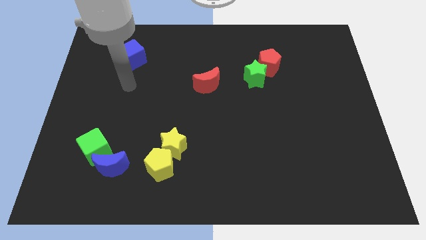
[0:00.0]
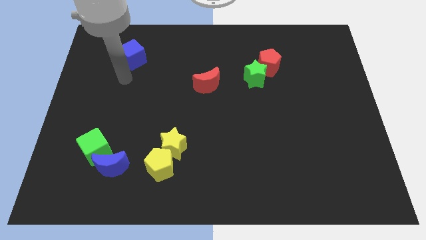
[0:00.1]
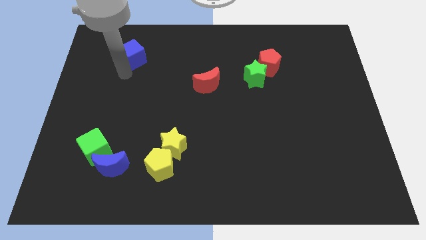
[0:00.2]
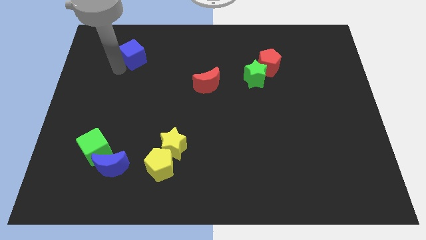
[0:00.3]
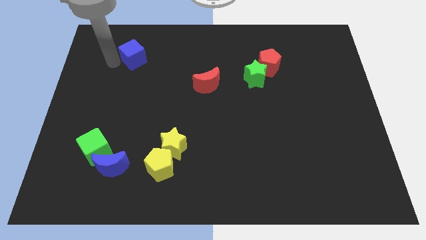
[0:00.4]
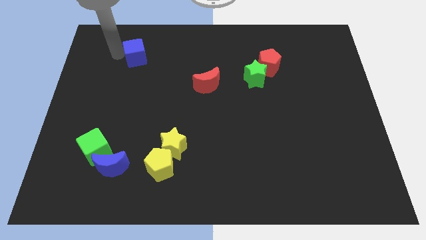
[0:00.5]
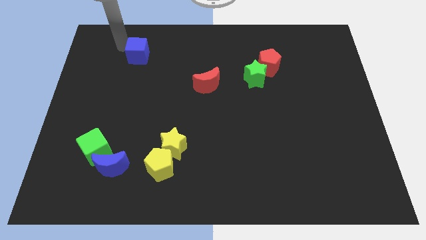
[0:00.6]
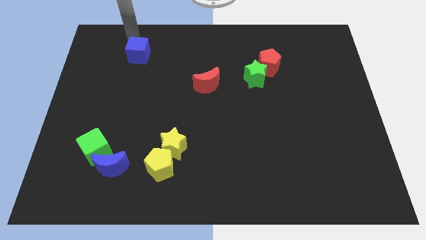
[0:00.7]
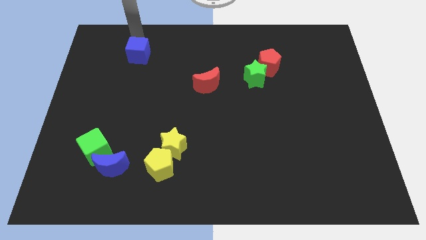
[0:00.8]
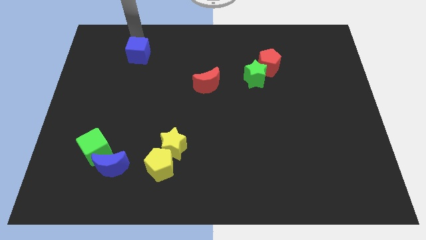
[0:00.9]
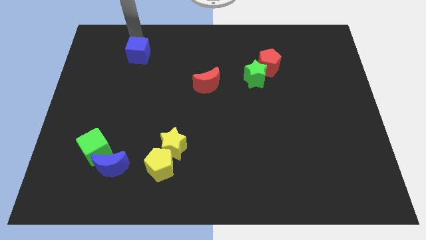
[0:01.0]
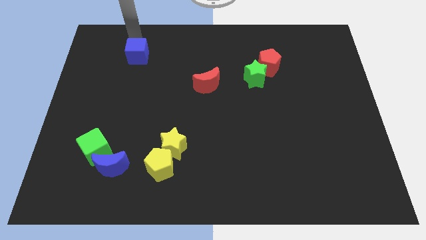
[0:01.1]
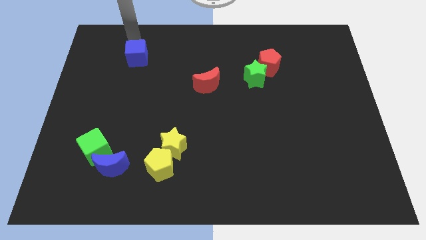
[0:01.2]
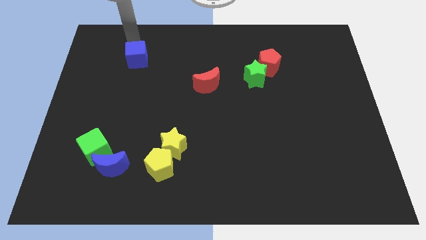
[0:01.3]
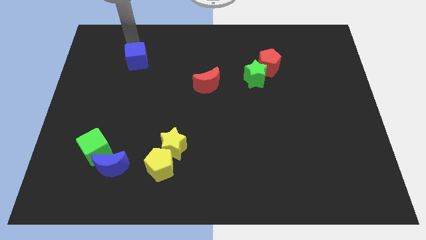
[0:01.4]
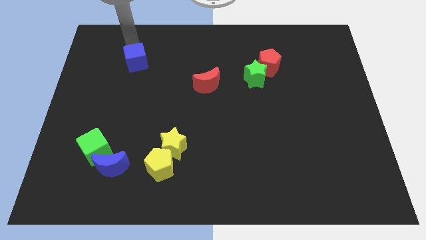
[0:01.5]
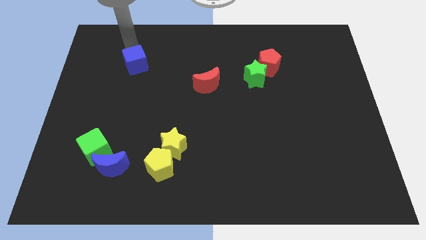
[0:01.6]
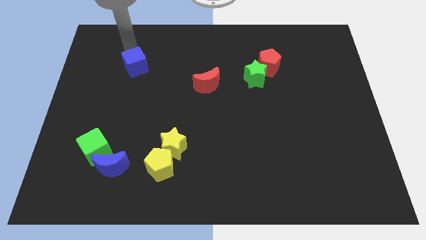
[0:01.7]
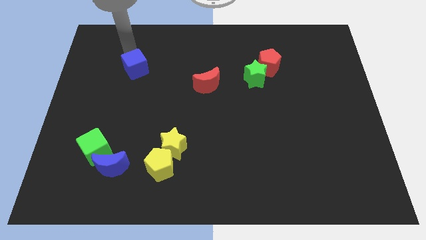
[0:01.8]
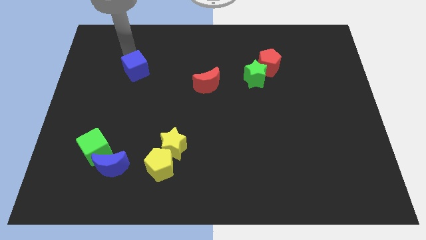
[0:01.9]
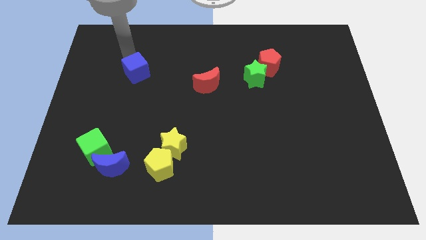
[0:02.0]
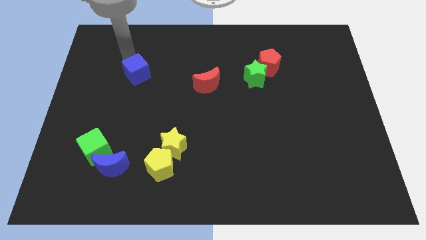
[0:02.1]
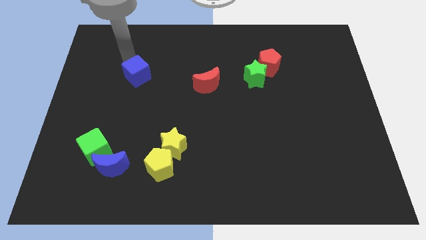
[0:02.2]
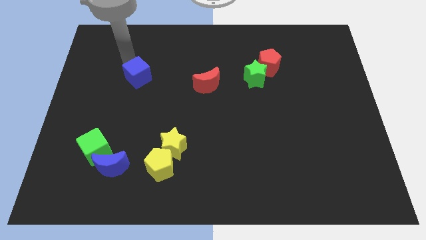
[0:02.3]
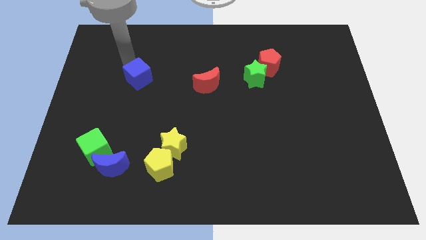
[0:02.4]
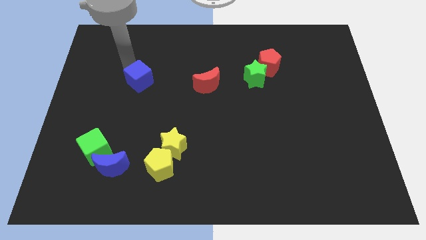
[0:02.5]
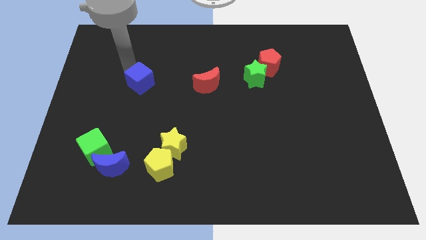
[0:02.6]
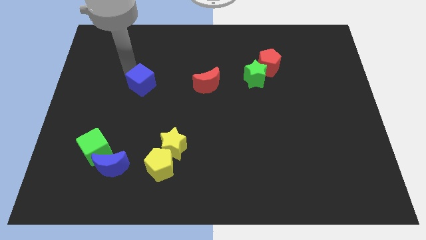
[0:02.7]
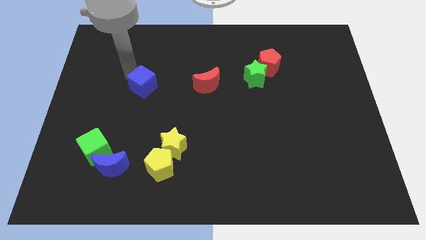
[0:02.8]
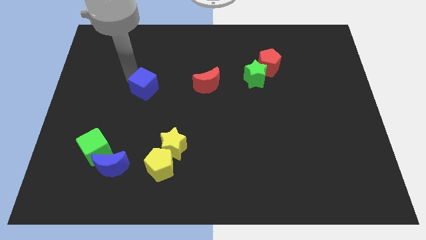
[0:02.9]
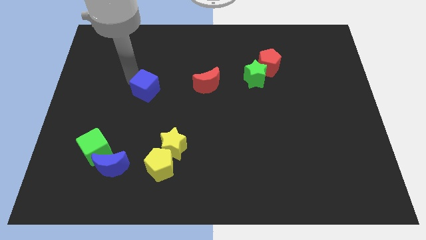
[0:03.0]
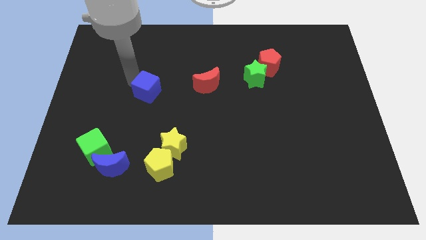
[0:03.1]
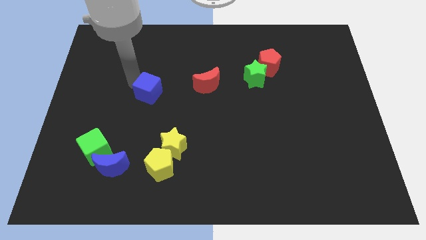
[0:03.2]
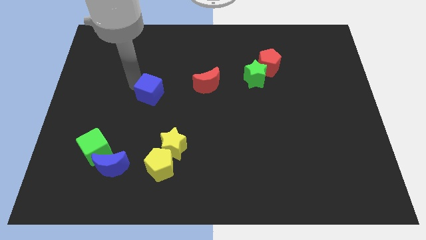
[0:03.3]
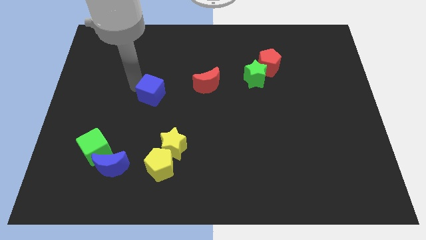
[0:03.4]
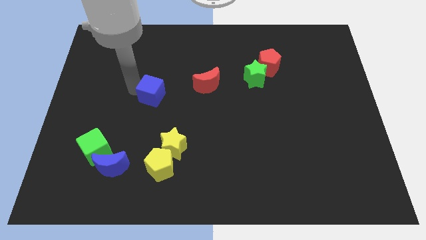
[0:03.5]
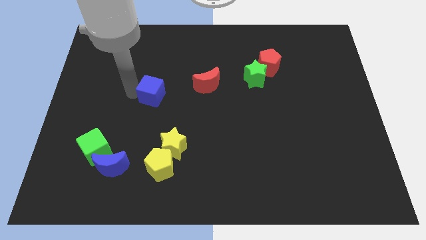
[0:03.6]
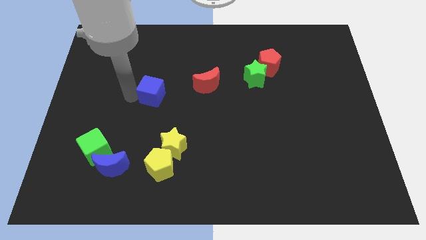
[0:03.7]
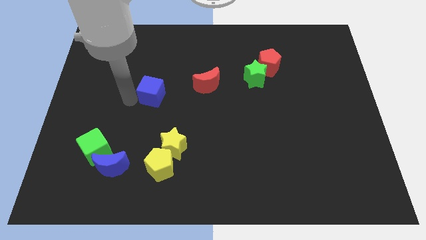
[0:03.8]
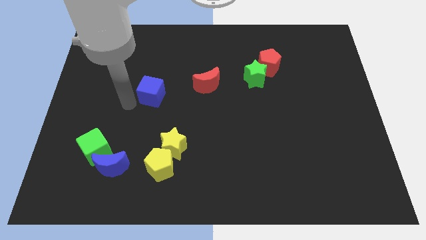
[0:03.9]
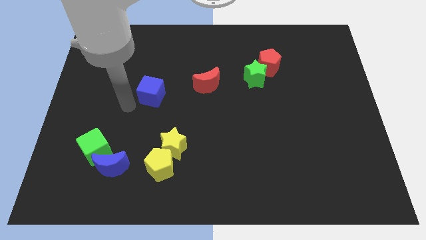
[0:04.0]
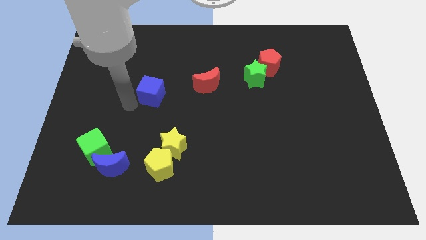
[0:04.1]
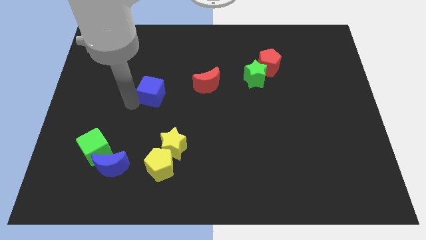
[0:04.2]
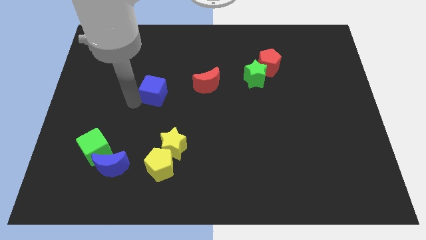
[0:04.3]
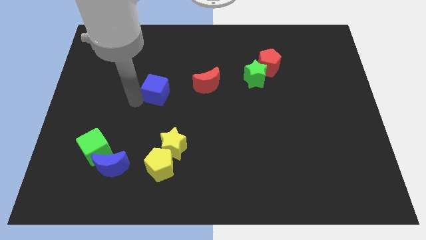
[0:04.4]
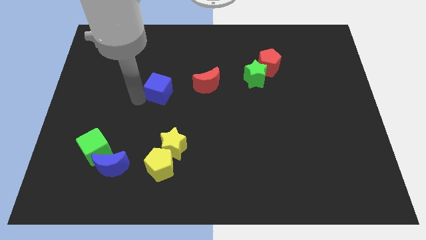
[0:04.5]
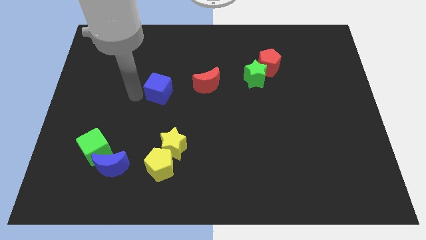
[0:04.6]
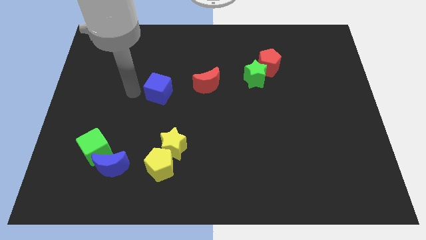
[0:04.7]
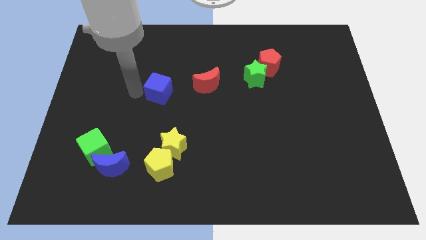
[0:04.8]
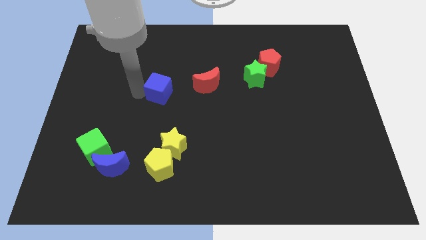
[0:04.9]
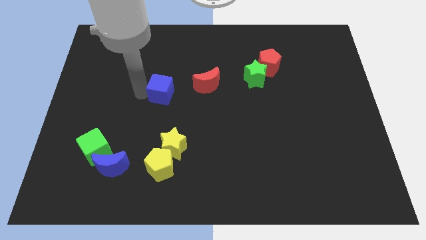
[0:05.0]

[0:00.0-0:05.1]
slide the blue cube to the center

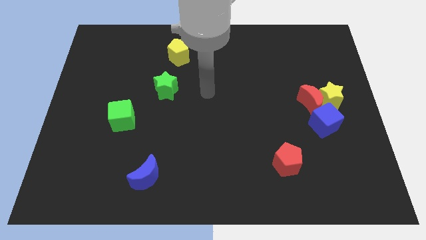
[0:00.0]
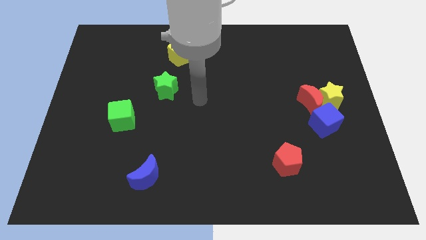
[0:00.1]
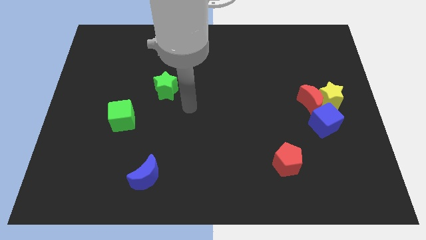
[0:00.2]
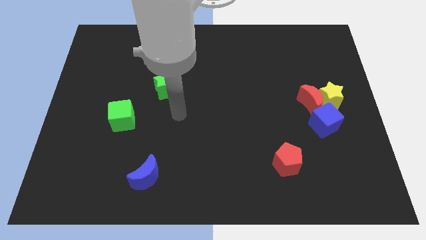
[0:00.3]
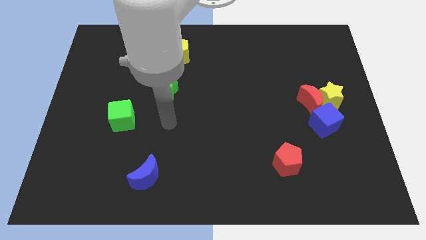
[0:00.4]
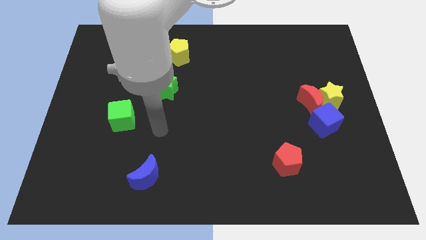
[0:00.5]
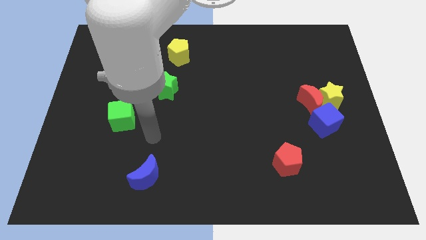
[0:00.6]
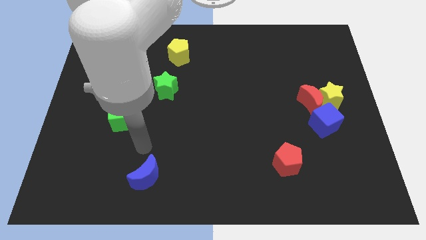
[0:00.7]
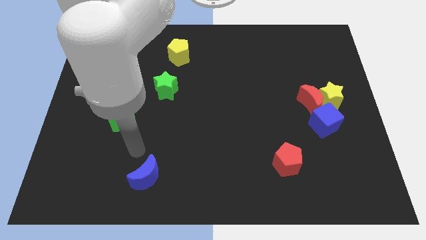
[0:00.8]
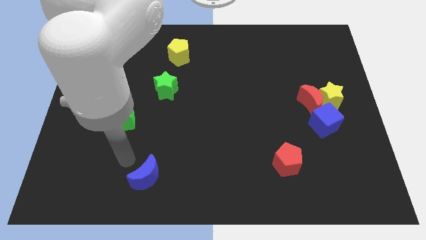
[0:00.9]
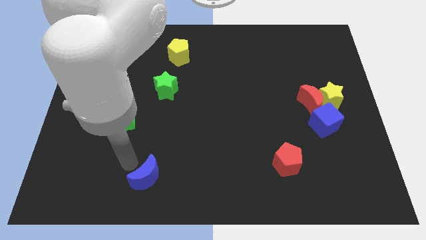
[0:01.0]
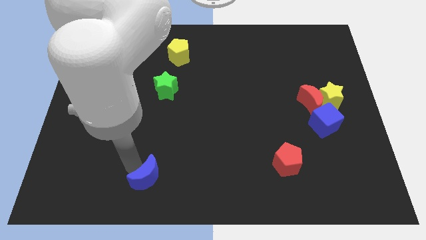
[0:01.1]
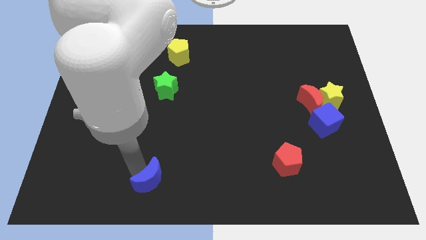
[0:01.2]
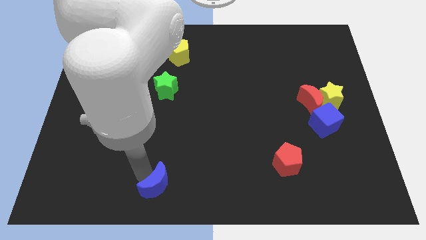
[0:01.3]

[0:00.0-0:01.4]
put the blue moon to the bottom side

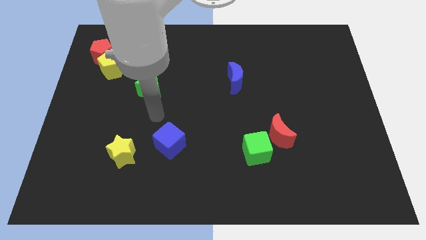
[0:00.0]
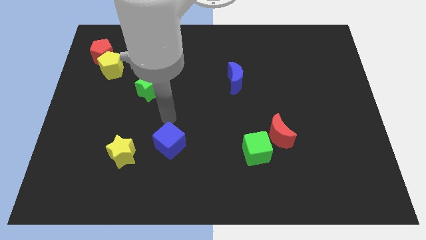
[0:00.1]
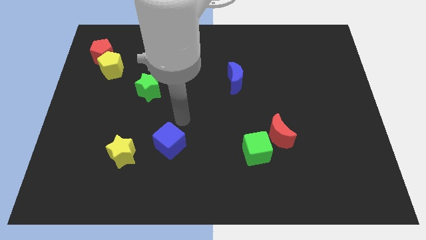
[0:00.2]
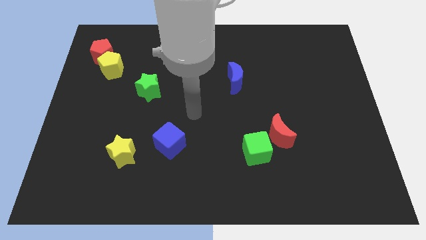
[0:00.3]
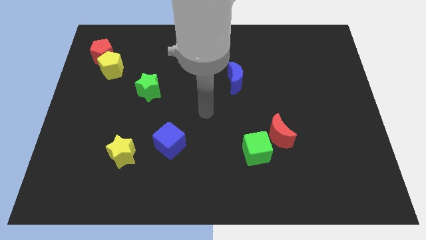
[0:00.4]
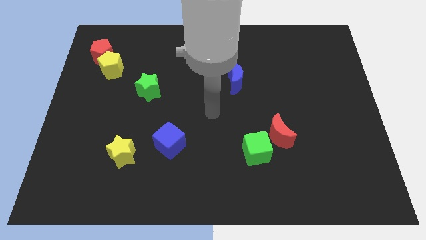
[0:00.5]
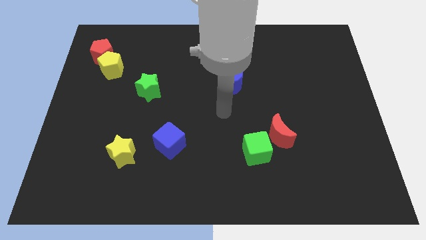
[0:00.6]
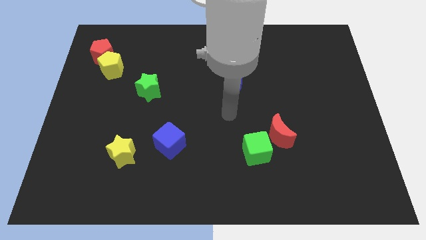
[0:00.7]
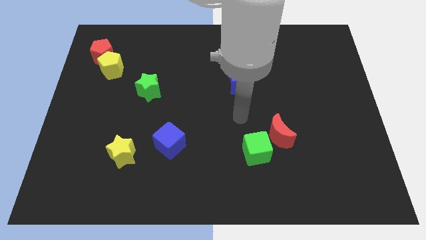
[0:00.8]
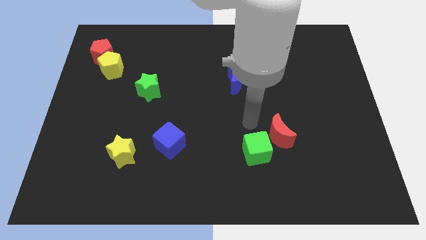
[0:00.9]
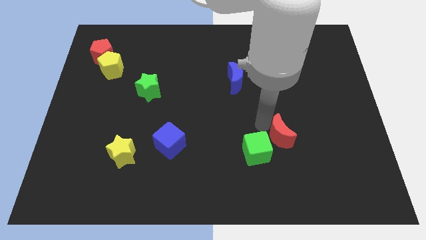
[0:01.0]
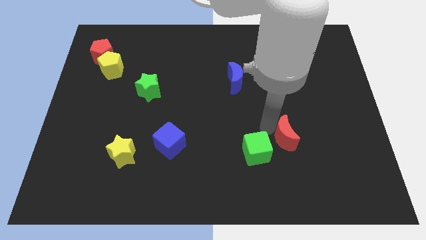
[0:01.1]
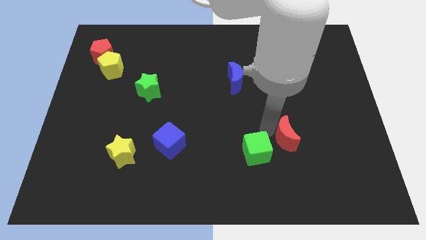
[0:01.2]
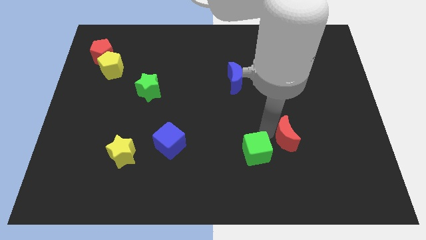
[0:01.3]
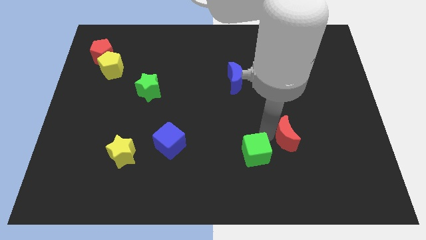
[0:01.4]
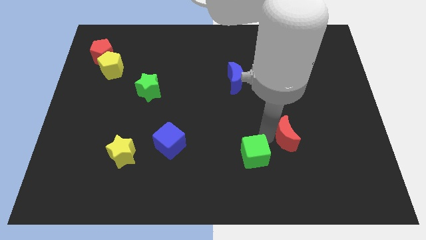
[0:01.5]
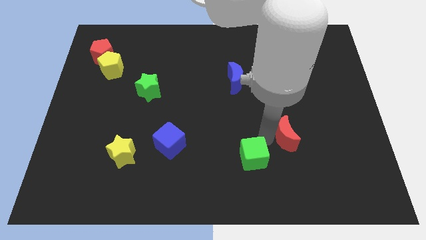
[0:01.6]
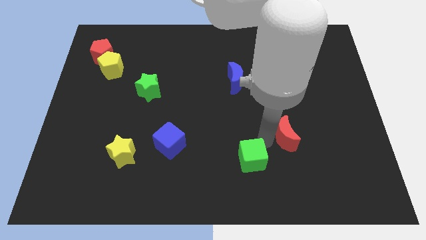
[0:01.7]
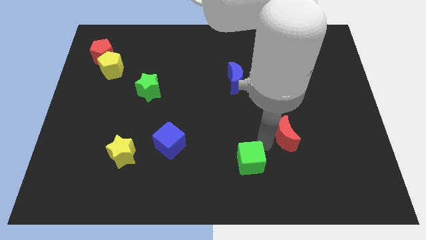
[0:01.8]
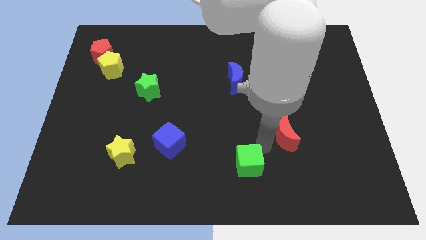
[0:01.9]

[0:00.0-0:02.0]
push the green cube to the bottom side
